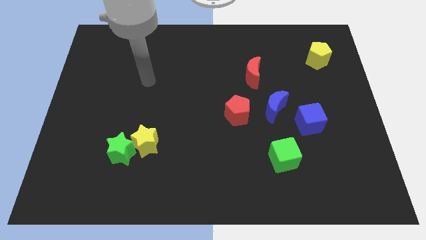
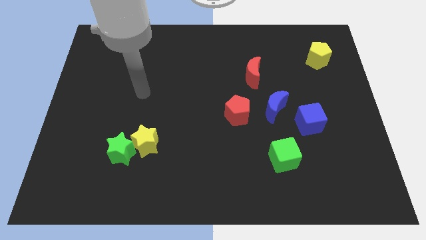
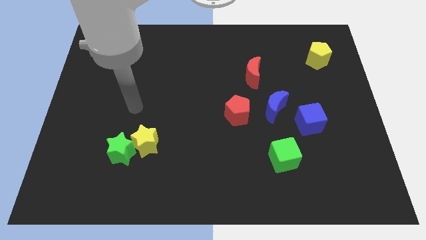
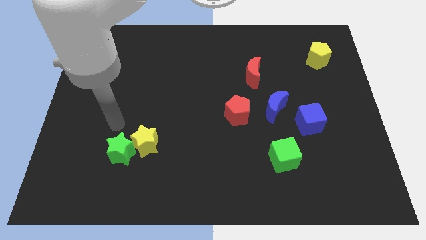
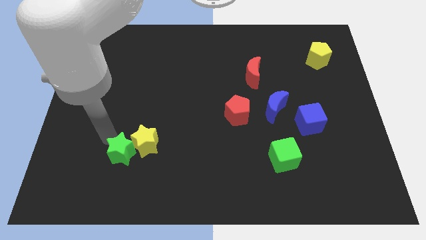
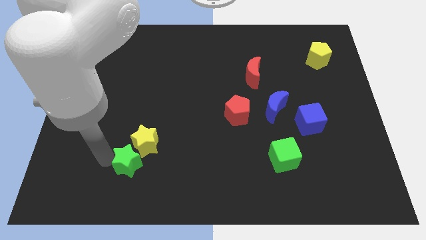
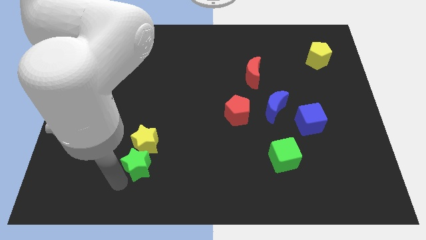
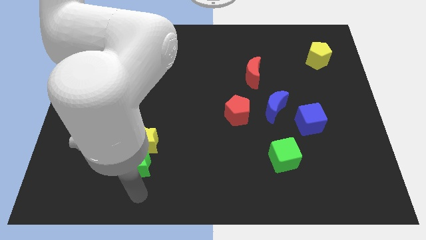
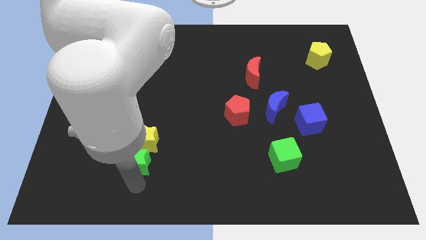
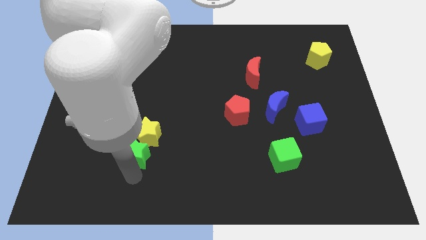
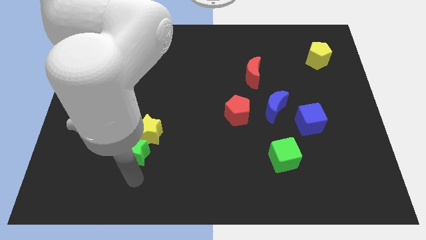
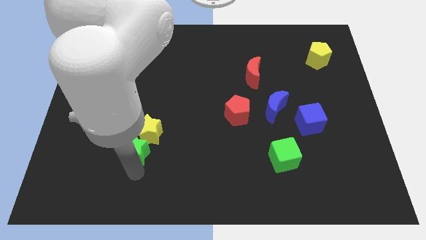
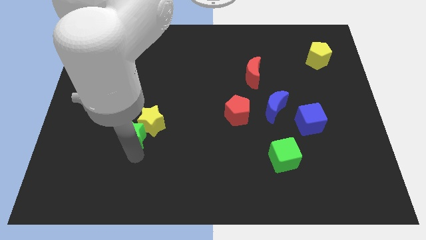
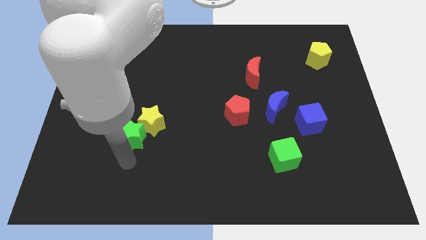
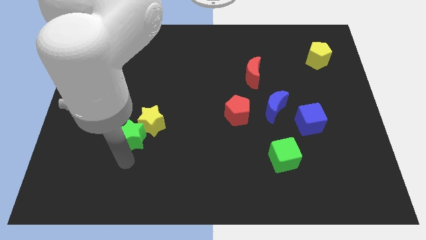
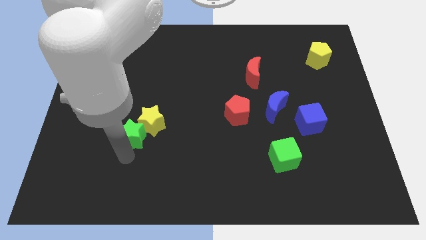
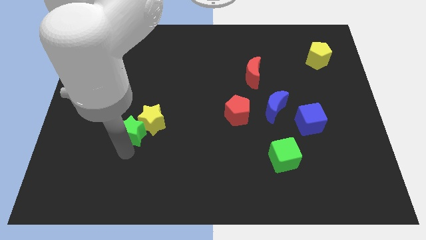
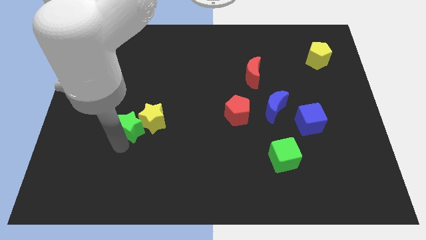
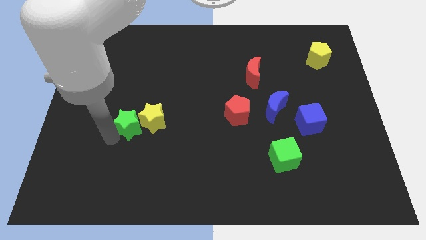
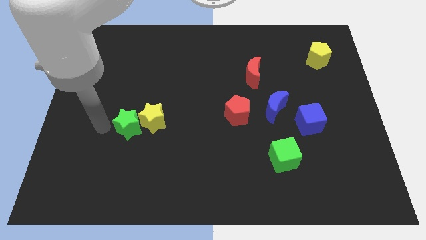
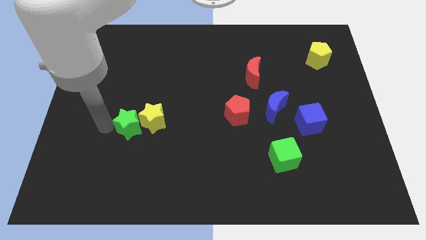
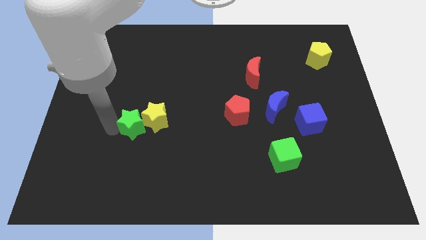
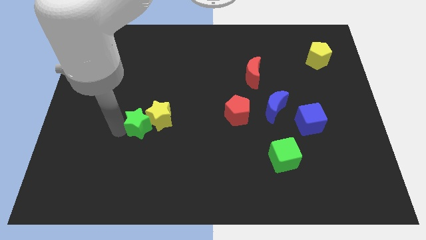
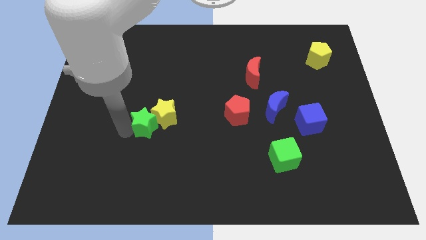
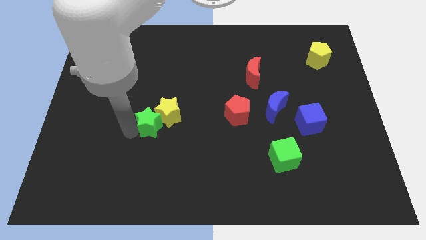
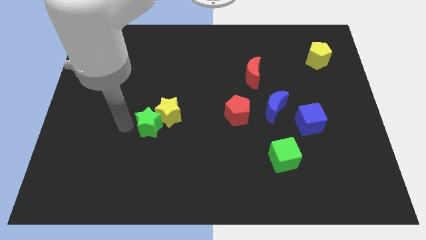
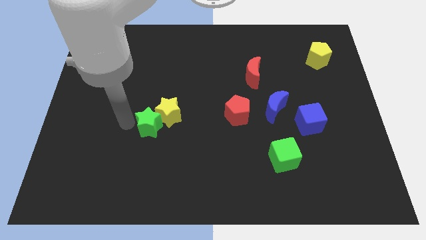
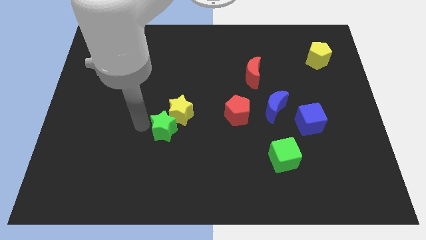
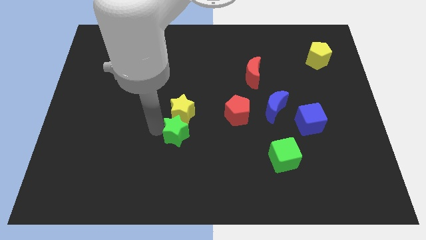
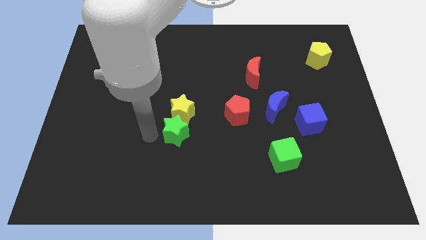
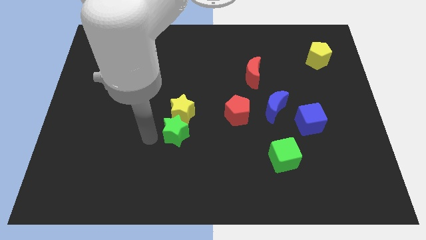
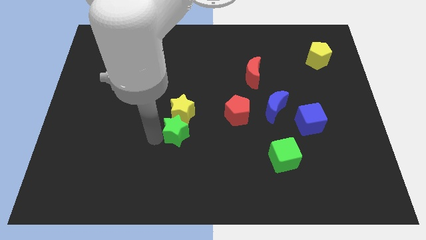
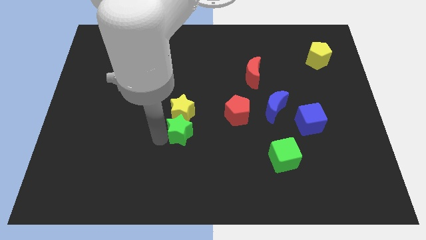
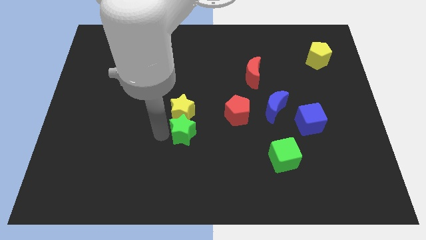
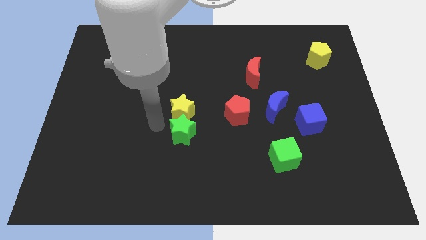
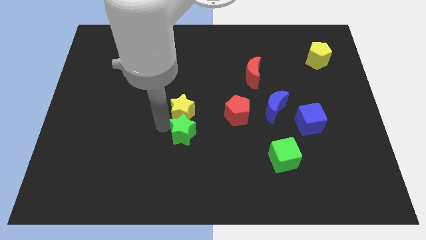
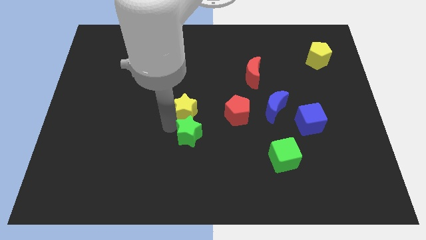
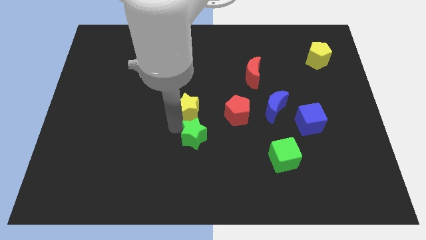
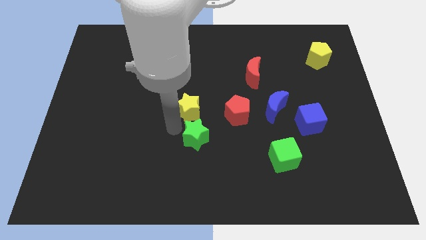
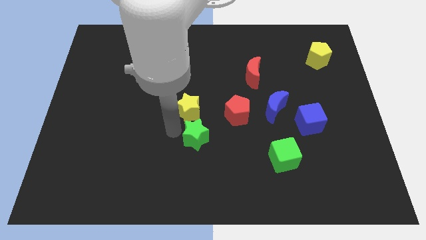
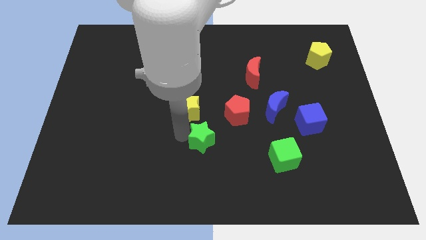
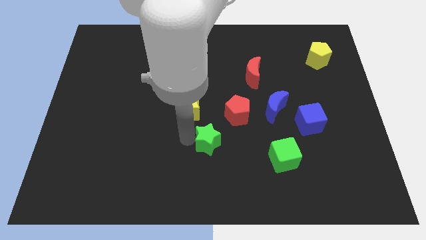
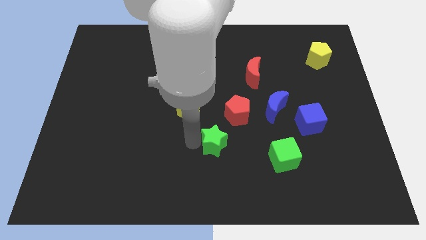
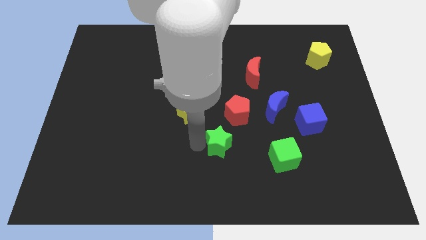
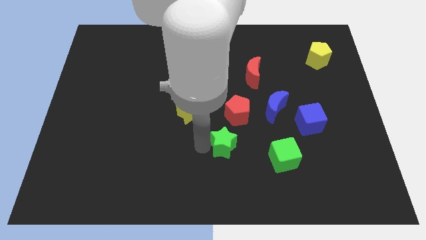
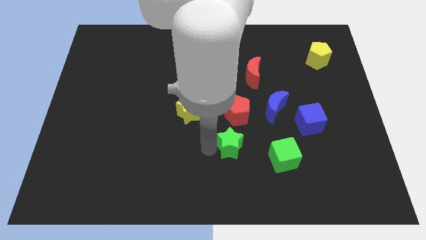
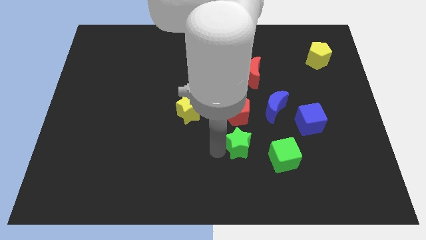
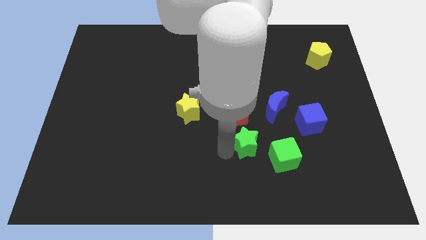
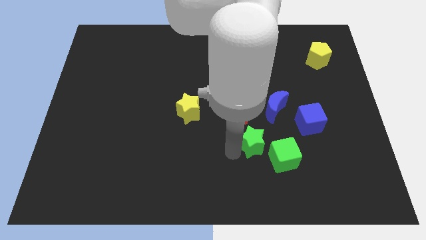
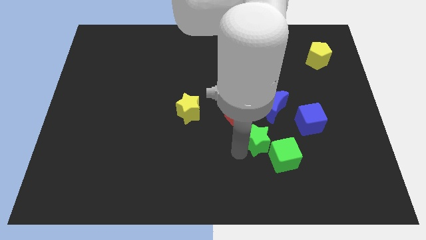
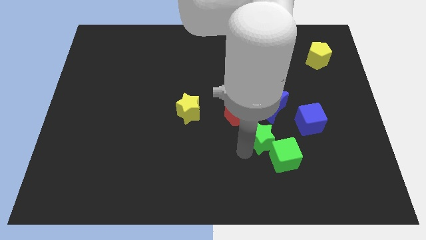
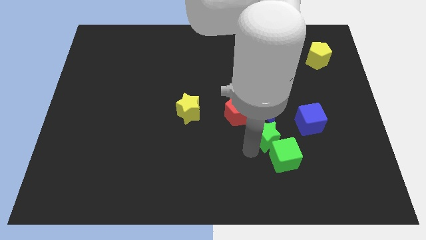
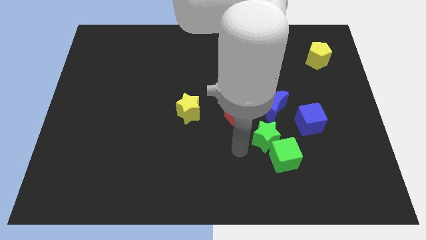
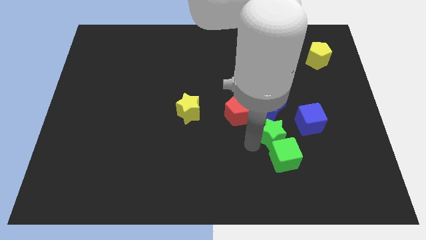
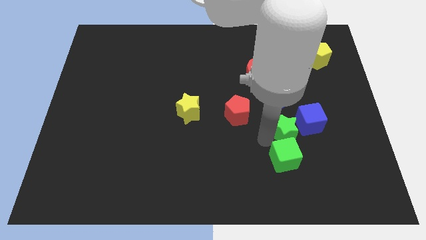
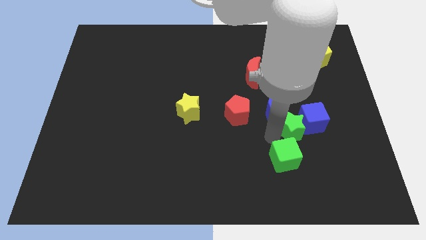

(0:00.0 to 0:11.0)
move the green star next to the blue cube

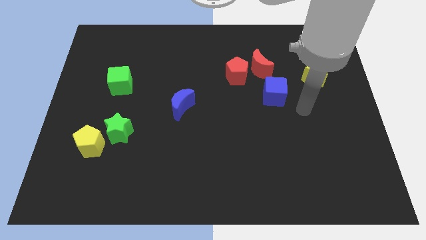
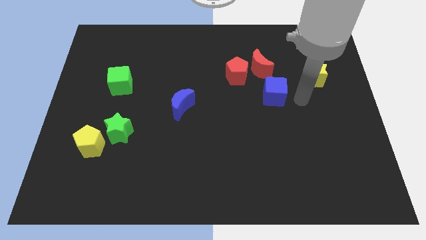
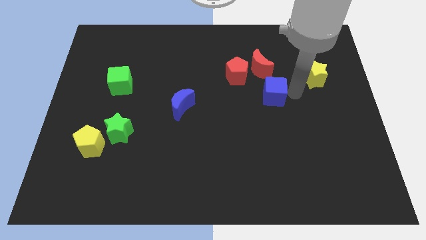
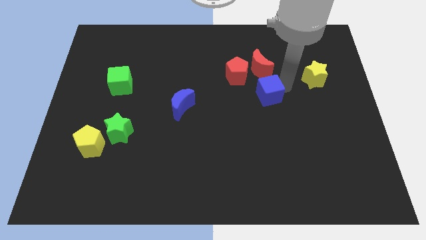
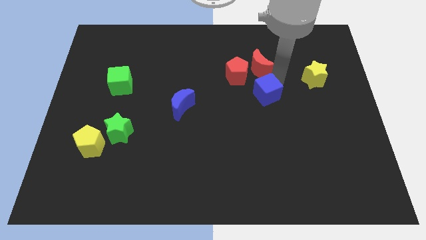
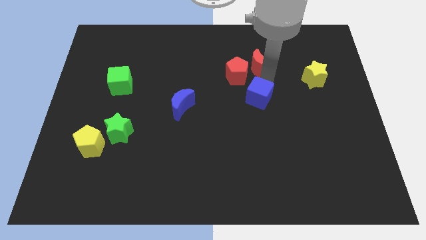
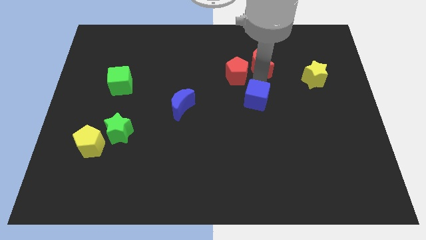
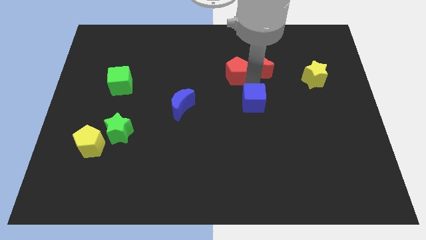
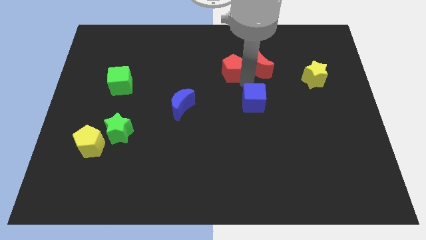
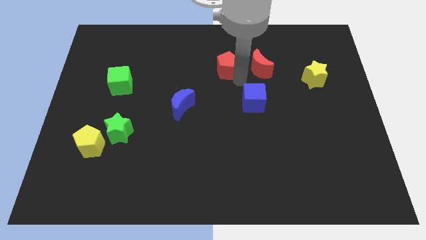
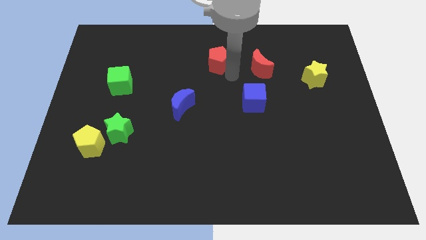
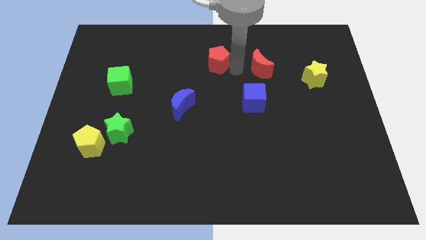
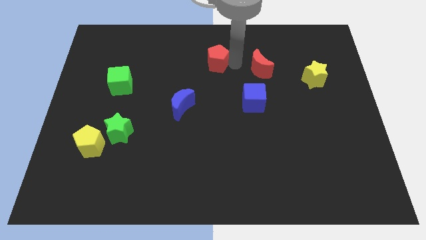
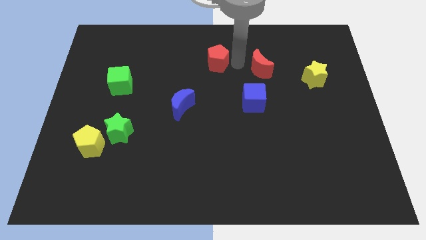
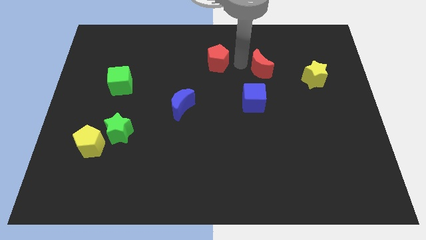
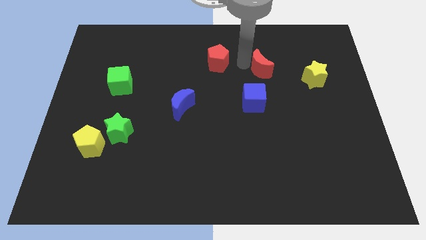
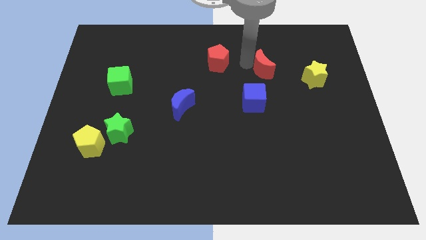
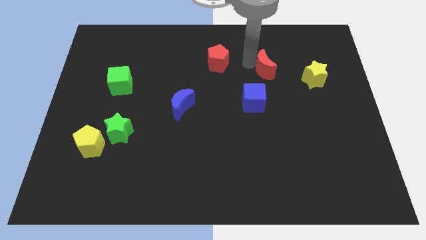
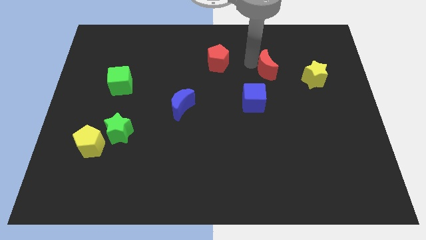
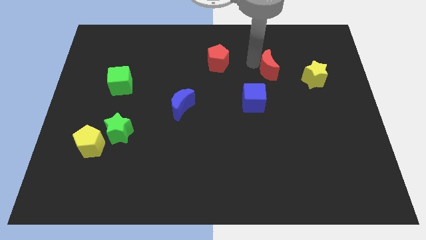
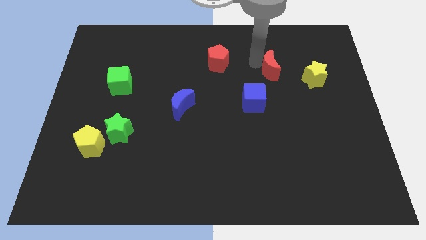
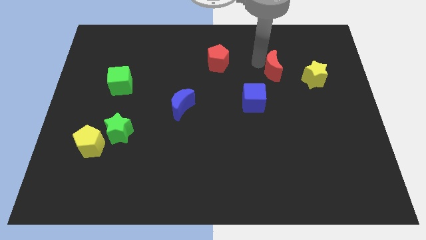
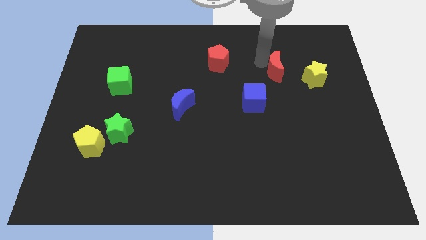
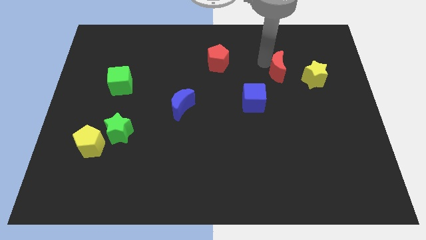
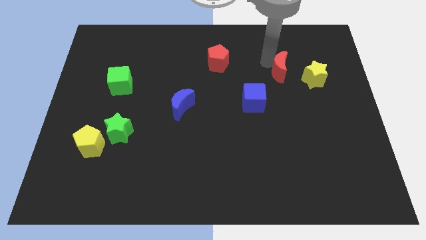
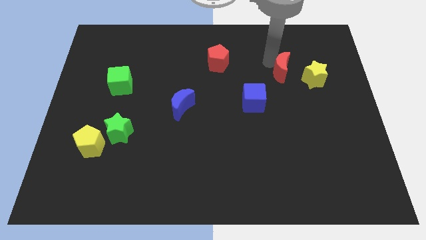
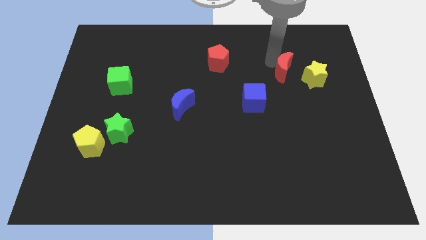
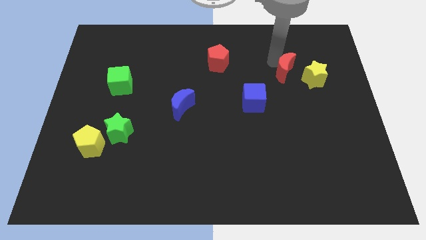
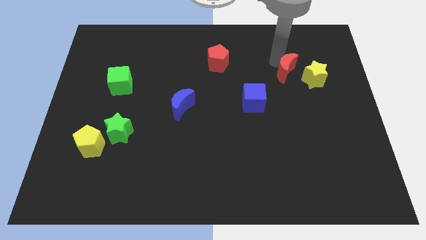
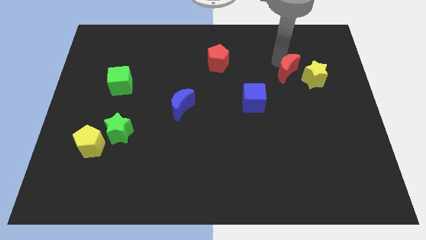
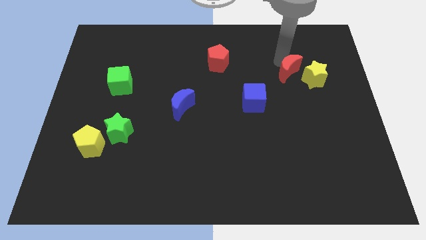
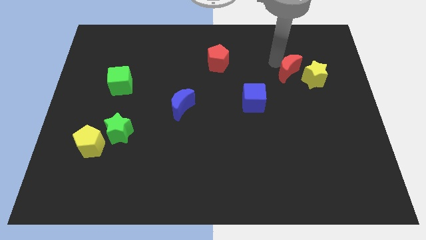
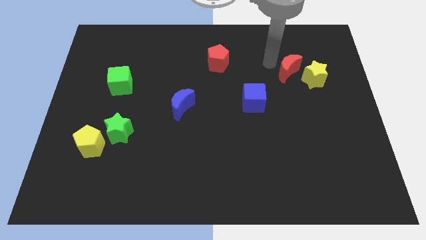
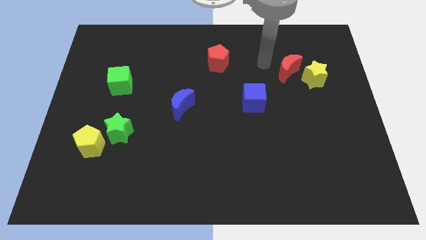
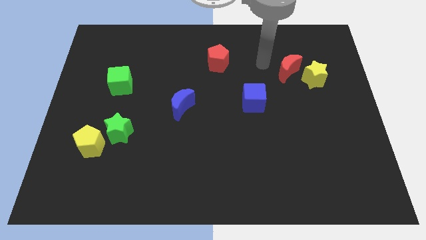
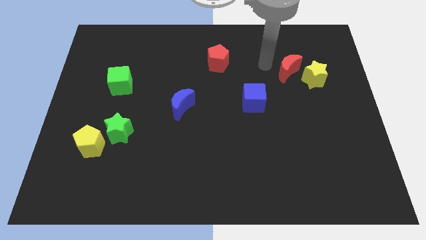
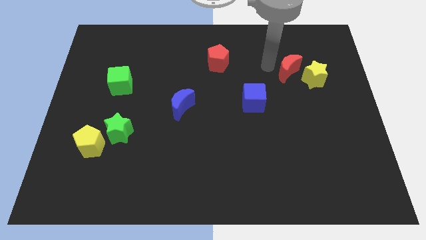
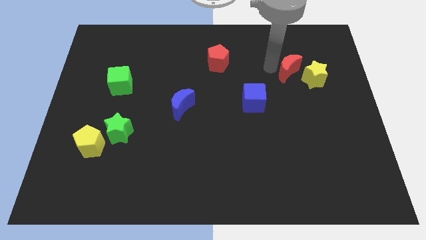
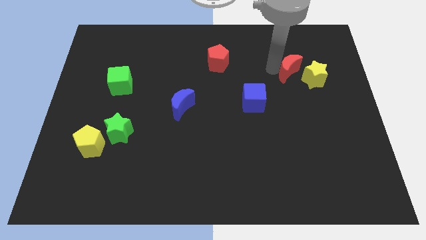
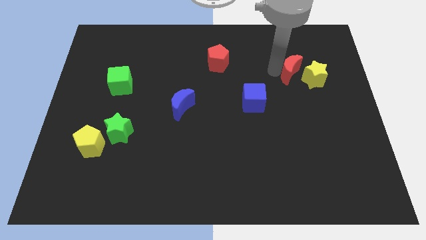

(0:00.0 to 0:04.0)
push the red moon next to the yellow star
